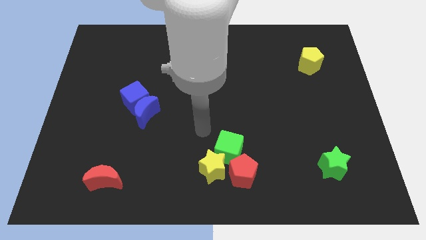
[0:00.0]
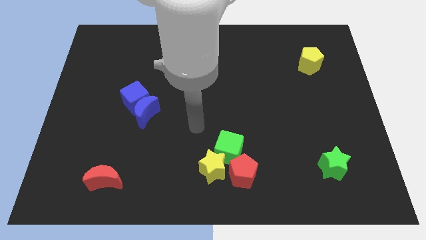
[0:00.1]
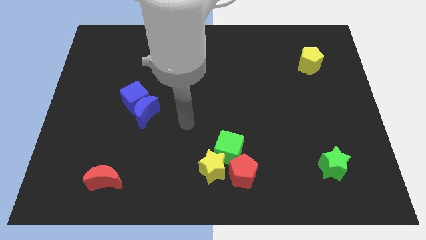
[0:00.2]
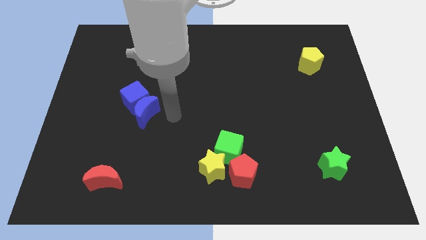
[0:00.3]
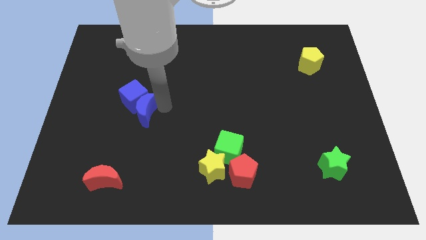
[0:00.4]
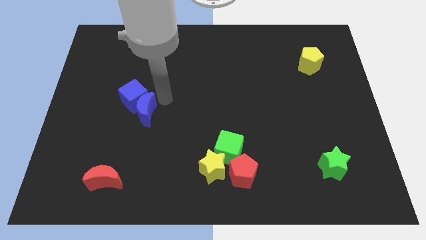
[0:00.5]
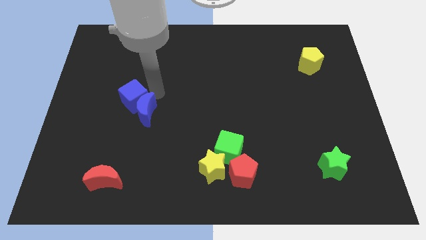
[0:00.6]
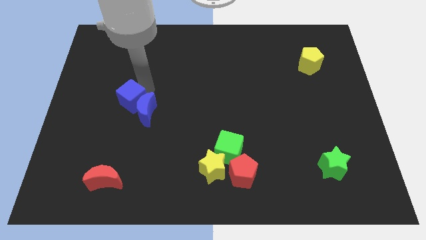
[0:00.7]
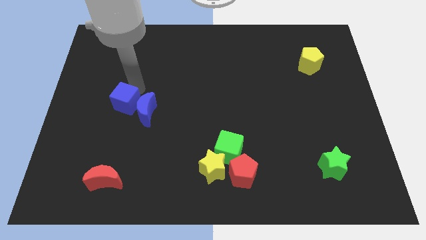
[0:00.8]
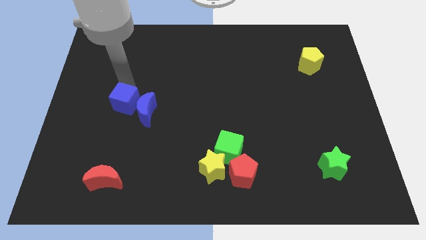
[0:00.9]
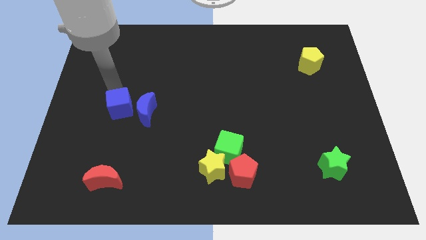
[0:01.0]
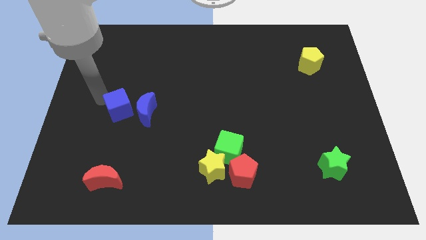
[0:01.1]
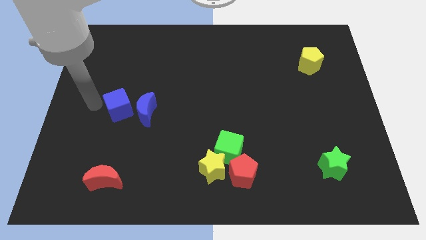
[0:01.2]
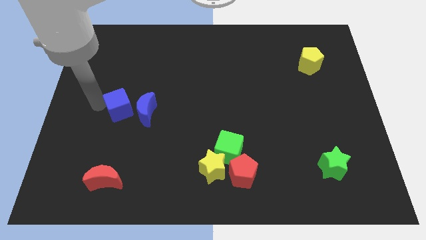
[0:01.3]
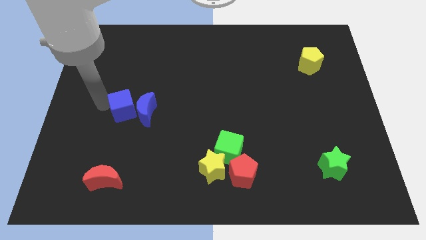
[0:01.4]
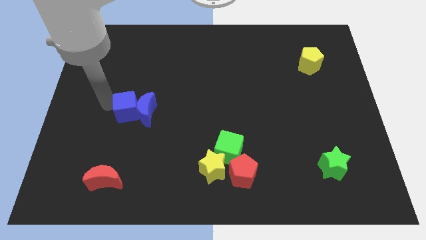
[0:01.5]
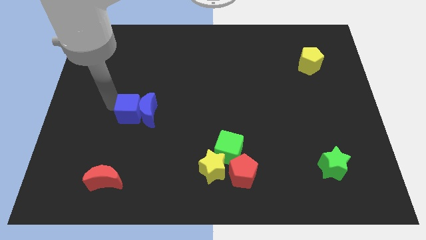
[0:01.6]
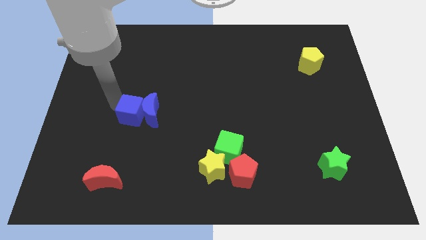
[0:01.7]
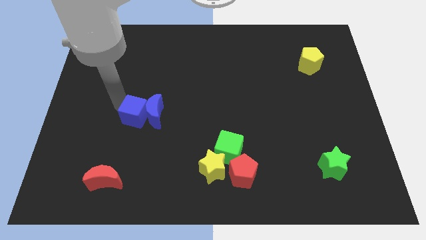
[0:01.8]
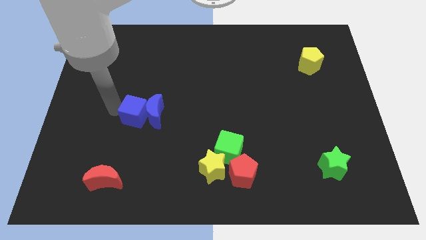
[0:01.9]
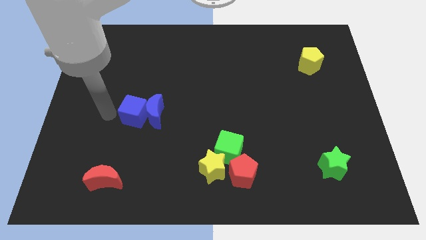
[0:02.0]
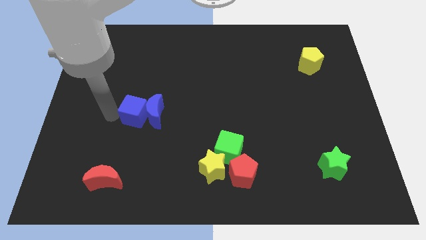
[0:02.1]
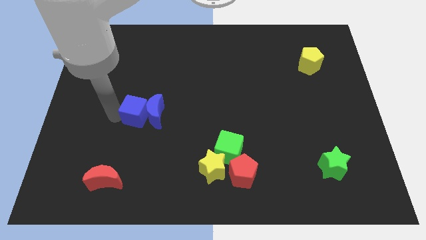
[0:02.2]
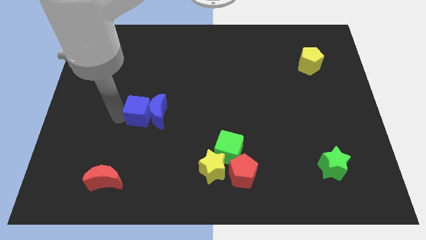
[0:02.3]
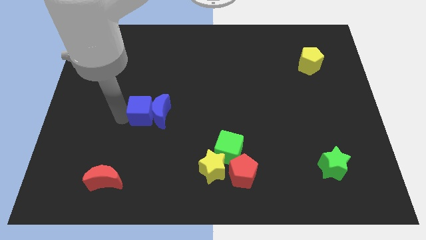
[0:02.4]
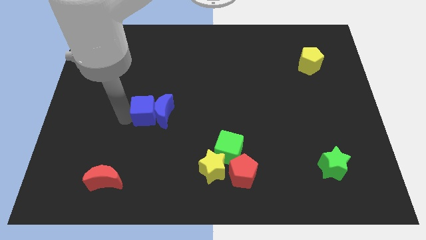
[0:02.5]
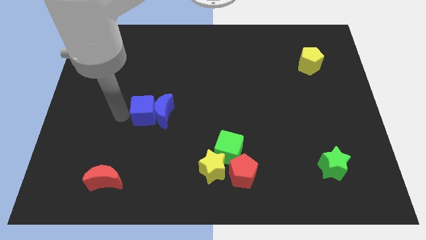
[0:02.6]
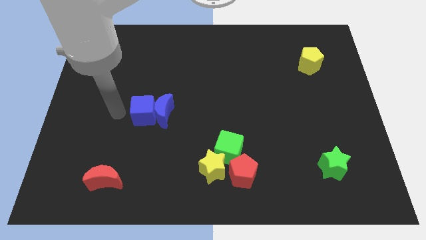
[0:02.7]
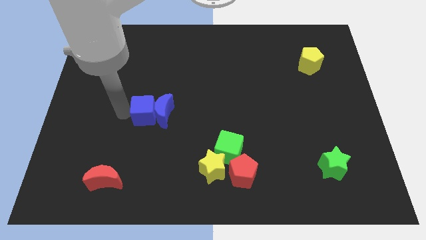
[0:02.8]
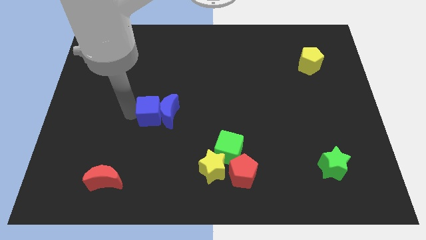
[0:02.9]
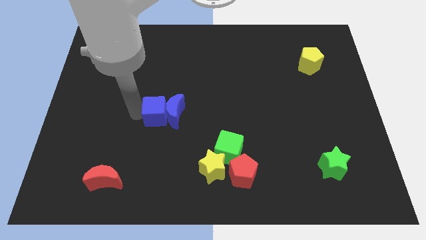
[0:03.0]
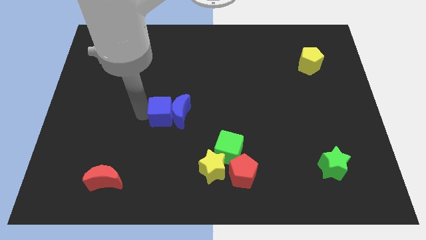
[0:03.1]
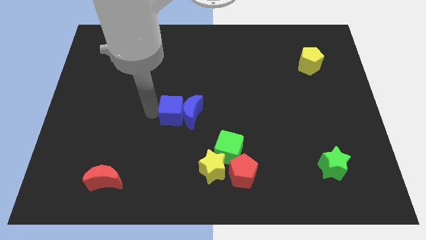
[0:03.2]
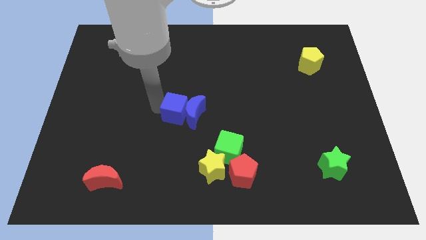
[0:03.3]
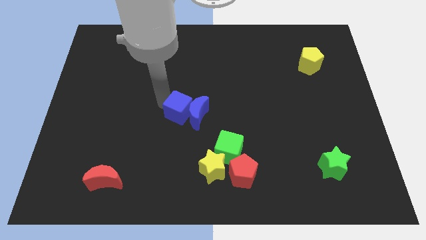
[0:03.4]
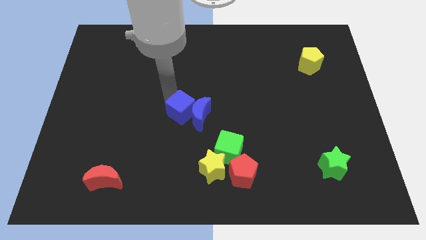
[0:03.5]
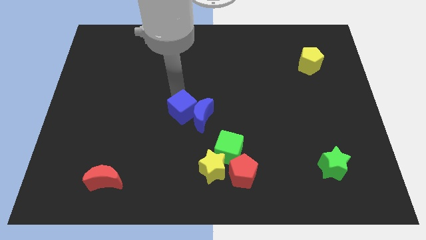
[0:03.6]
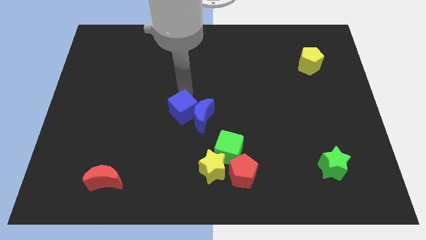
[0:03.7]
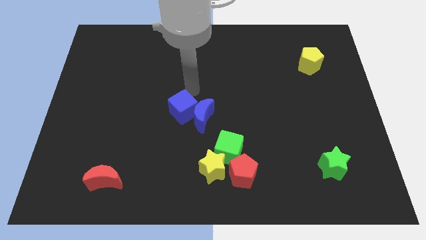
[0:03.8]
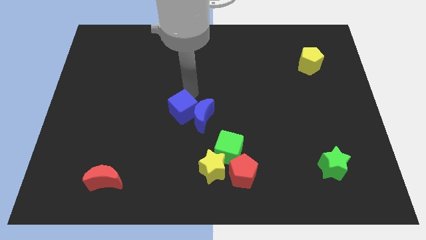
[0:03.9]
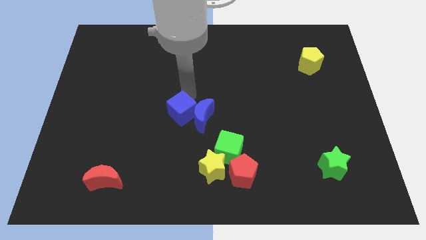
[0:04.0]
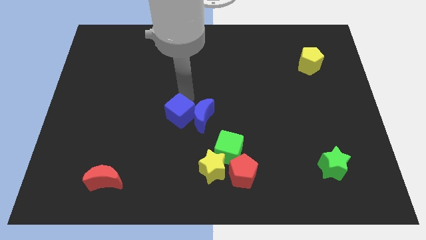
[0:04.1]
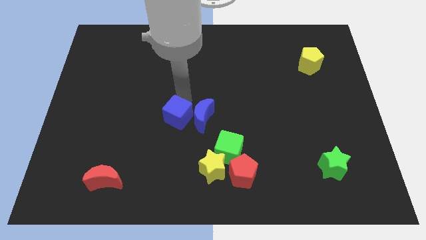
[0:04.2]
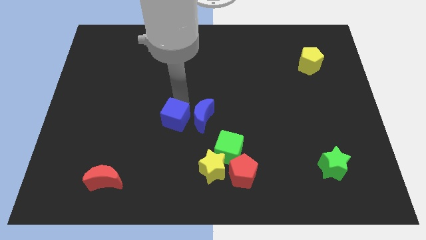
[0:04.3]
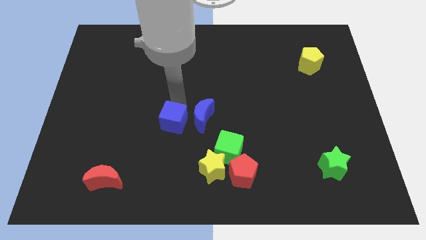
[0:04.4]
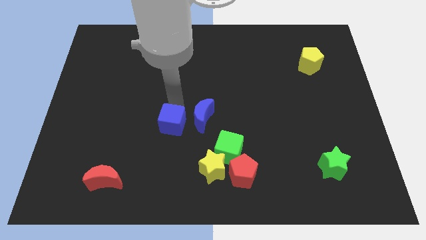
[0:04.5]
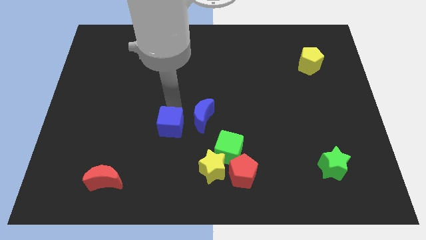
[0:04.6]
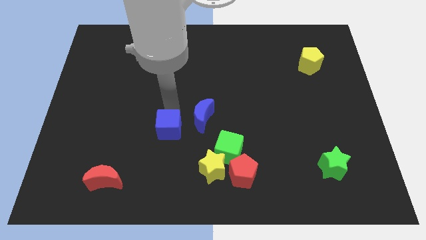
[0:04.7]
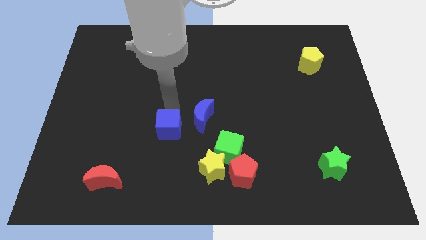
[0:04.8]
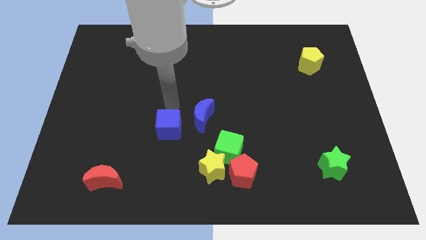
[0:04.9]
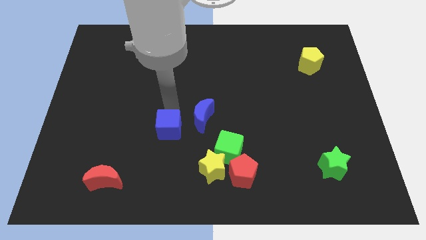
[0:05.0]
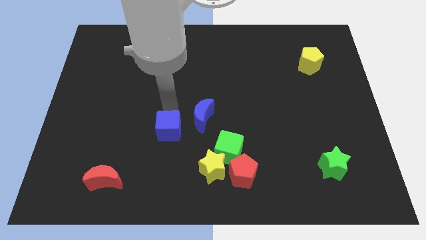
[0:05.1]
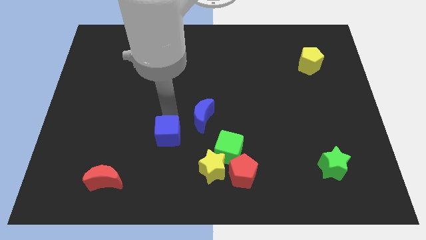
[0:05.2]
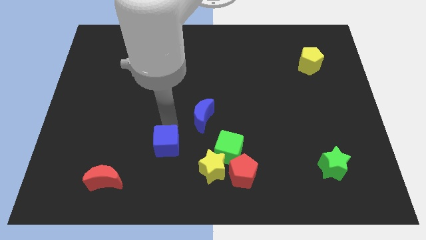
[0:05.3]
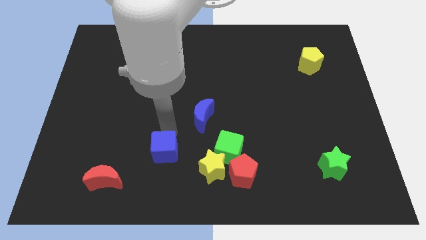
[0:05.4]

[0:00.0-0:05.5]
push the blue cube to the left of the yellow star

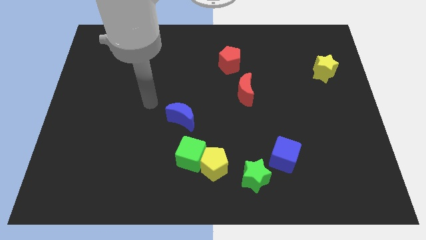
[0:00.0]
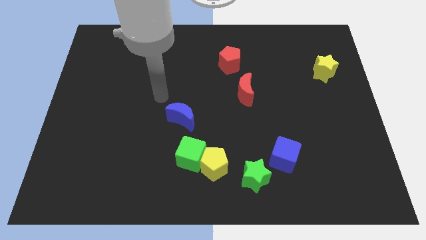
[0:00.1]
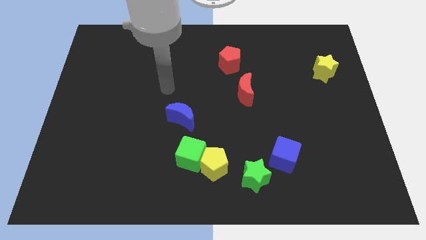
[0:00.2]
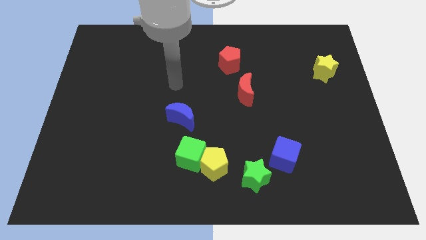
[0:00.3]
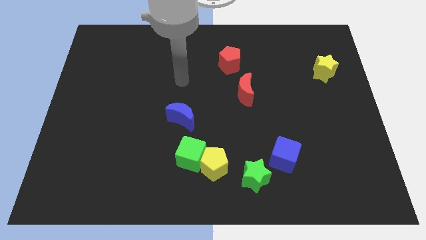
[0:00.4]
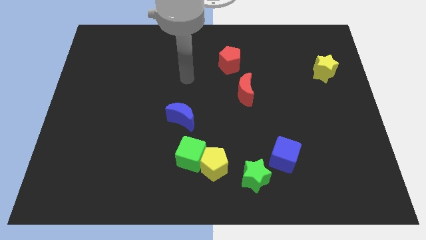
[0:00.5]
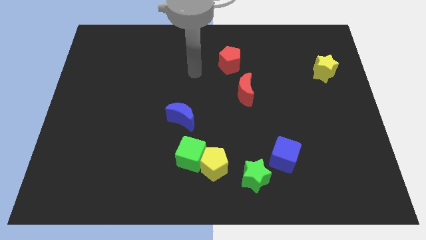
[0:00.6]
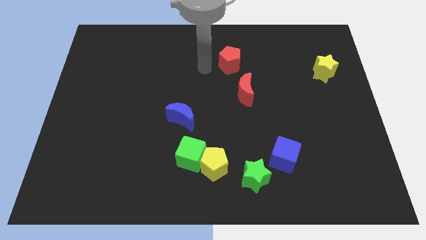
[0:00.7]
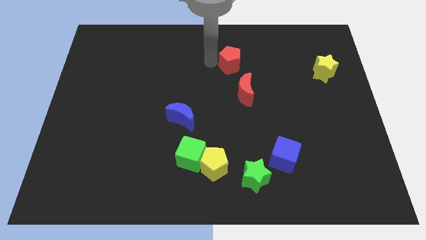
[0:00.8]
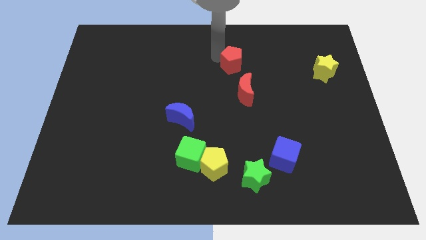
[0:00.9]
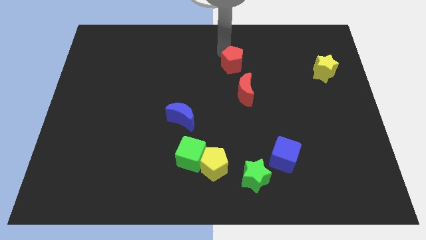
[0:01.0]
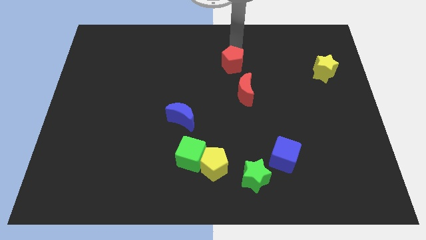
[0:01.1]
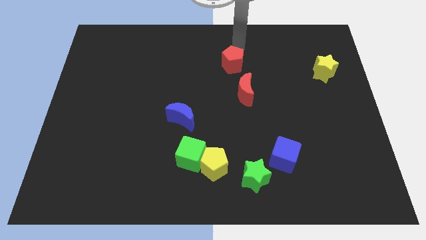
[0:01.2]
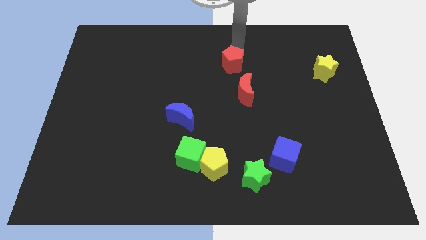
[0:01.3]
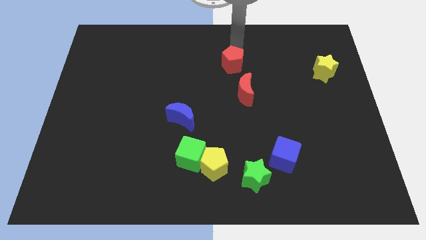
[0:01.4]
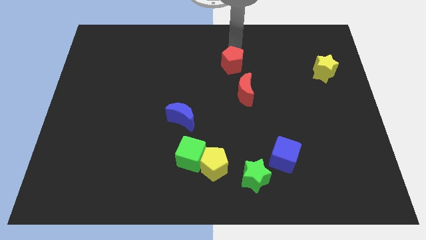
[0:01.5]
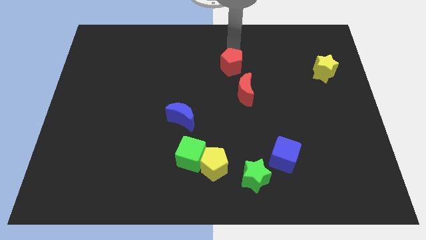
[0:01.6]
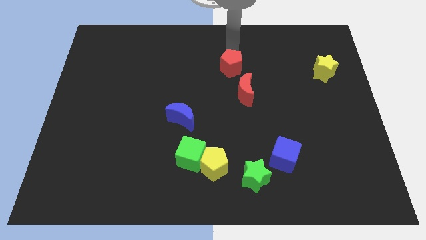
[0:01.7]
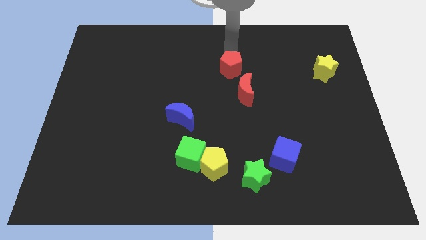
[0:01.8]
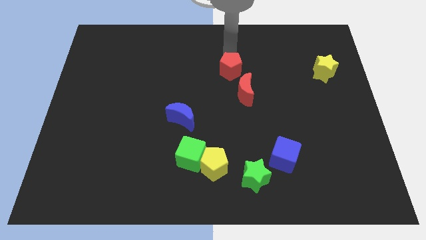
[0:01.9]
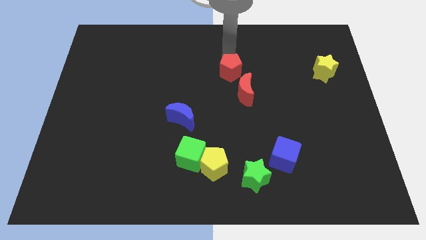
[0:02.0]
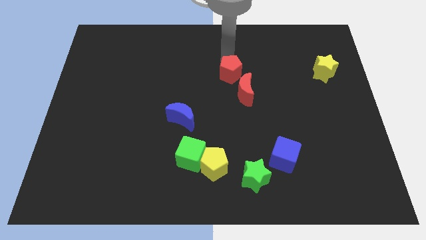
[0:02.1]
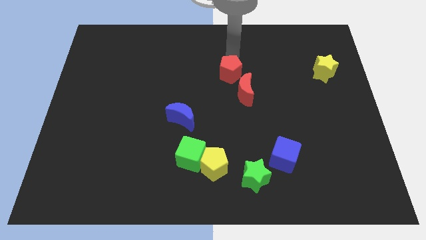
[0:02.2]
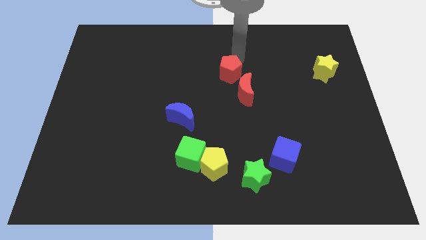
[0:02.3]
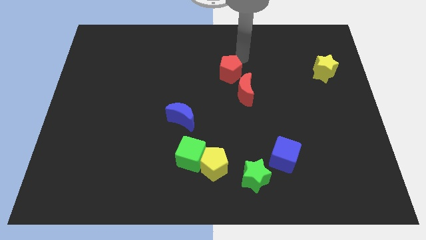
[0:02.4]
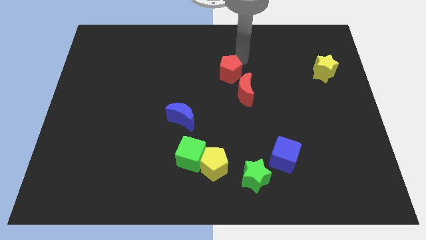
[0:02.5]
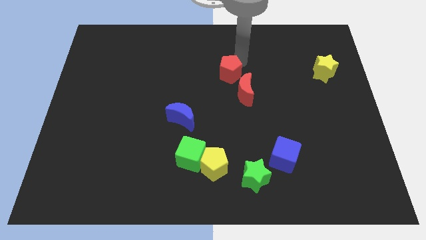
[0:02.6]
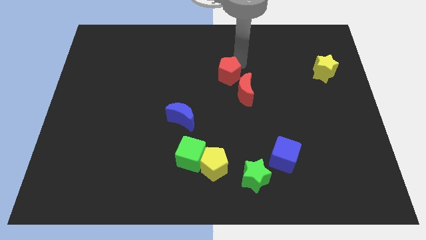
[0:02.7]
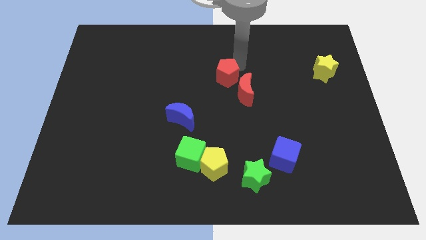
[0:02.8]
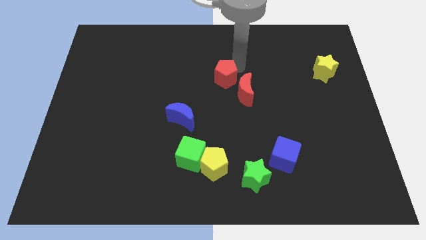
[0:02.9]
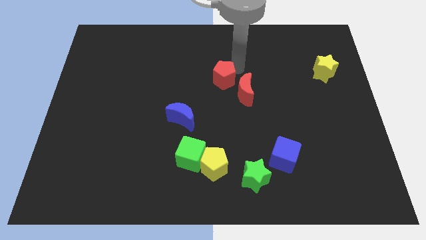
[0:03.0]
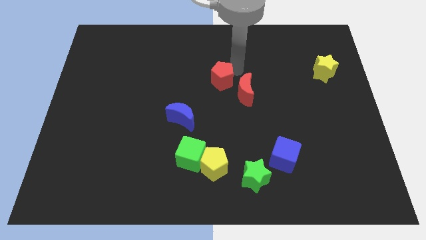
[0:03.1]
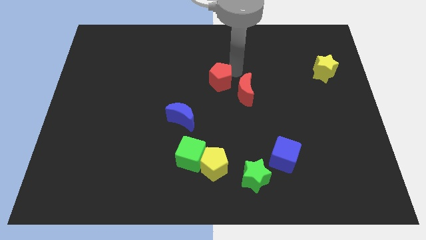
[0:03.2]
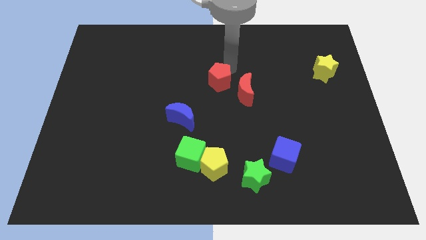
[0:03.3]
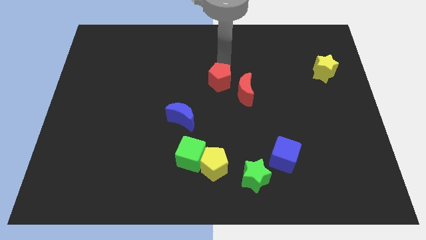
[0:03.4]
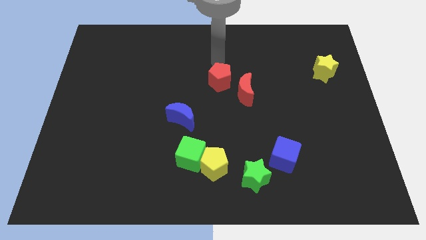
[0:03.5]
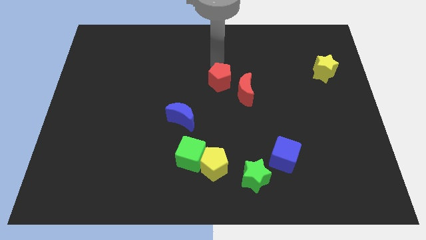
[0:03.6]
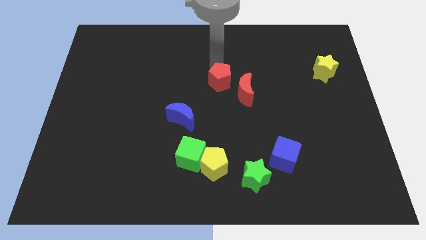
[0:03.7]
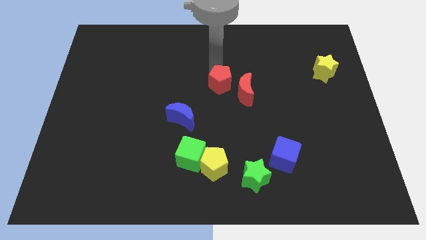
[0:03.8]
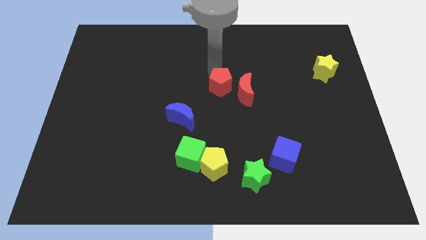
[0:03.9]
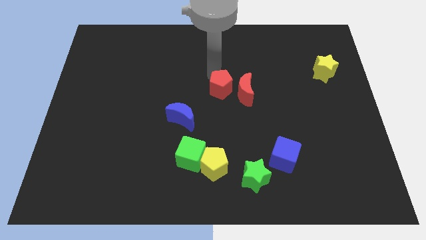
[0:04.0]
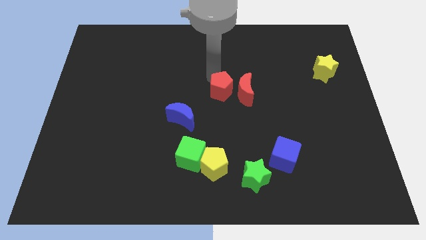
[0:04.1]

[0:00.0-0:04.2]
slide the red pentagon diagonally down and to the left of the red moon
